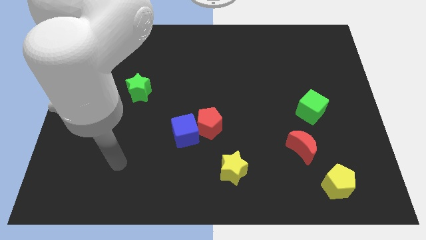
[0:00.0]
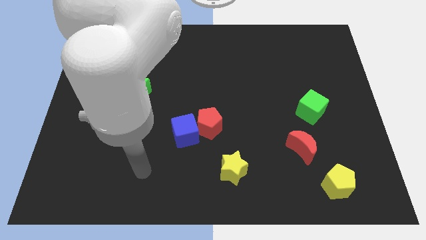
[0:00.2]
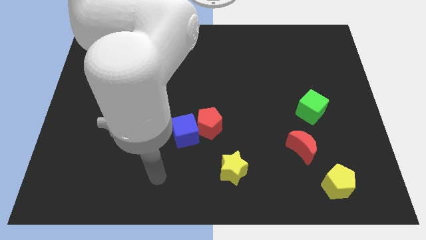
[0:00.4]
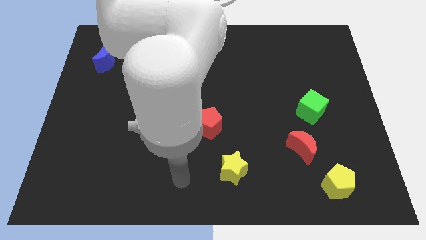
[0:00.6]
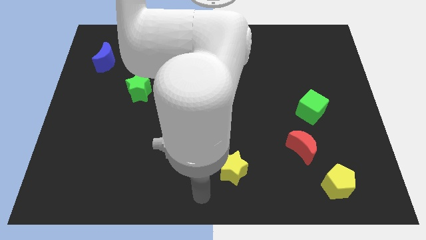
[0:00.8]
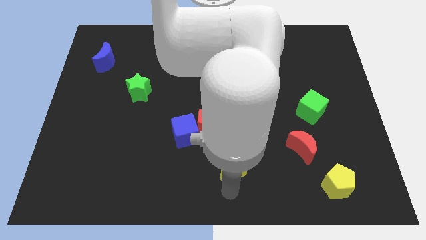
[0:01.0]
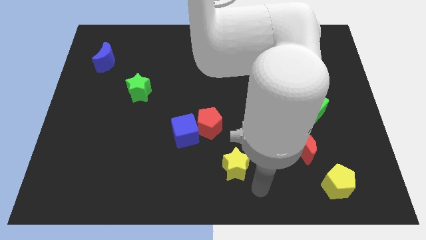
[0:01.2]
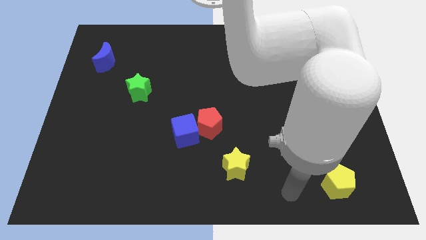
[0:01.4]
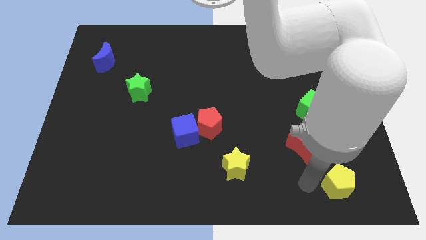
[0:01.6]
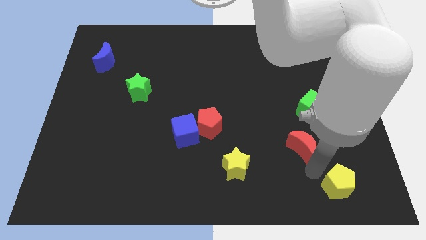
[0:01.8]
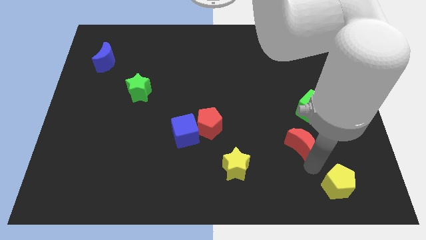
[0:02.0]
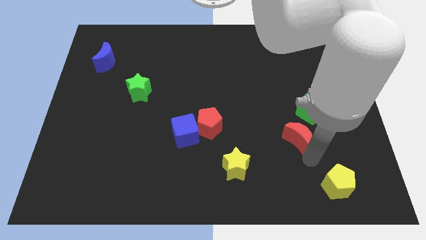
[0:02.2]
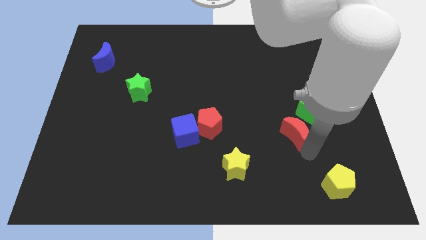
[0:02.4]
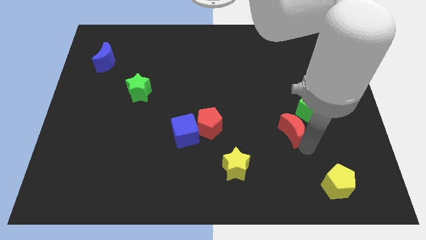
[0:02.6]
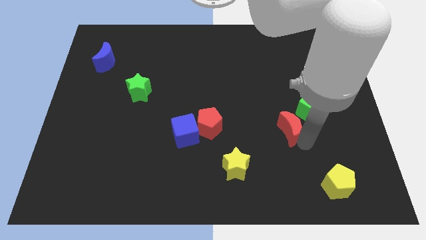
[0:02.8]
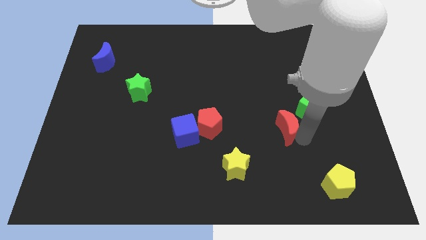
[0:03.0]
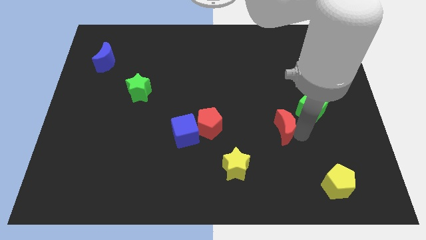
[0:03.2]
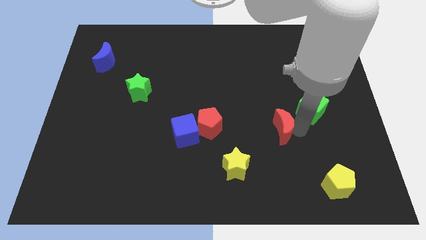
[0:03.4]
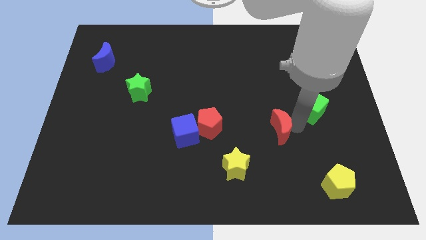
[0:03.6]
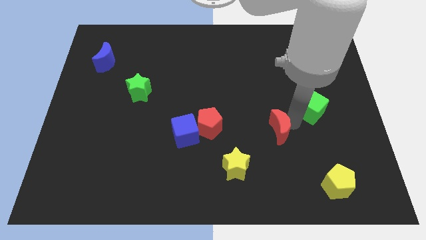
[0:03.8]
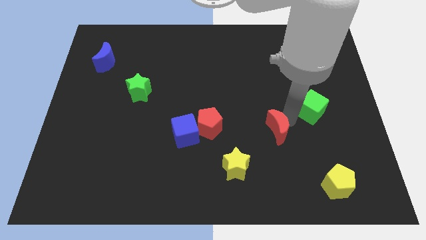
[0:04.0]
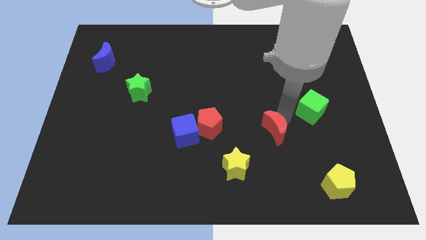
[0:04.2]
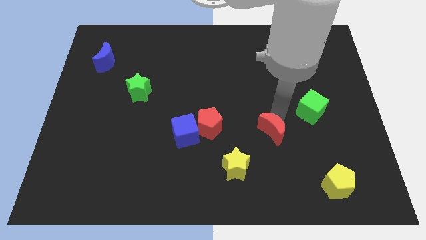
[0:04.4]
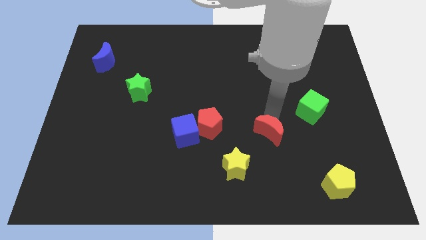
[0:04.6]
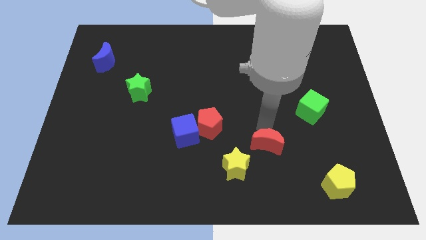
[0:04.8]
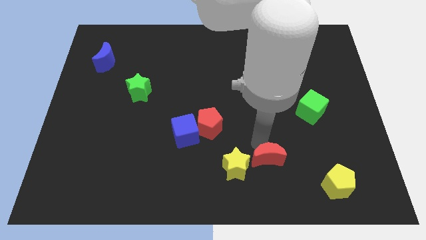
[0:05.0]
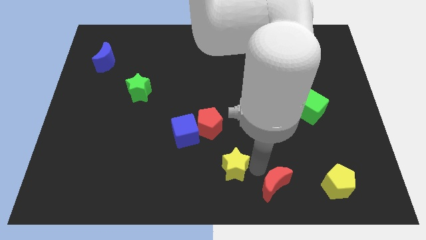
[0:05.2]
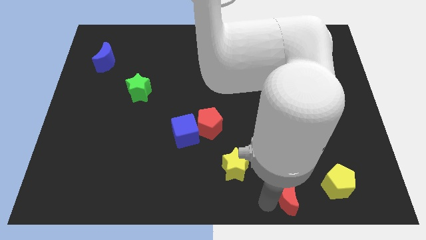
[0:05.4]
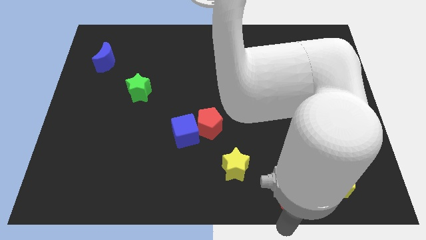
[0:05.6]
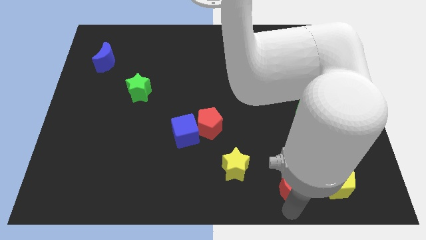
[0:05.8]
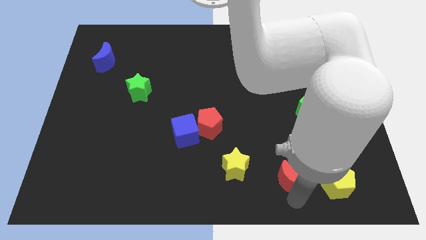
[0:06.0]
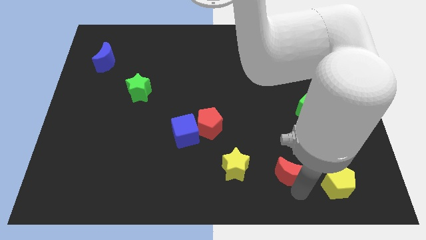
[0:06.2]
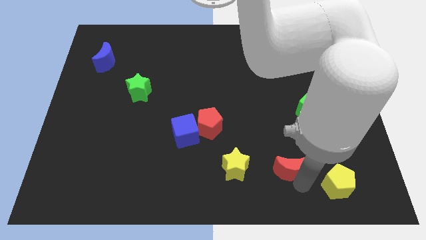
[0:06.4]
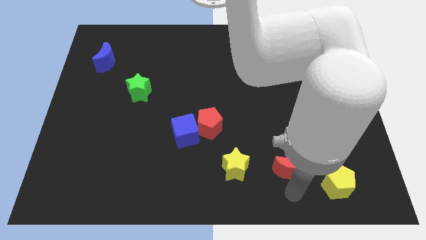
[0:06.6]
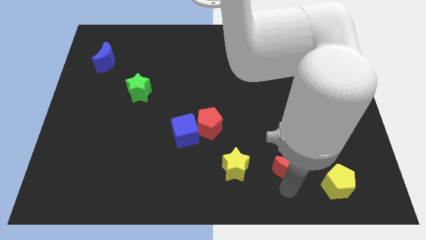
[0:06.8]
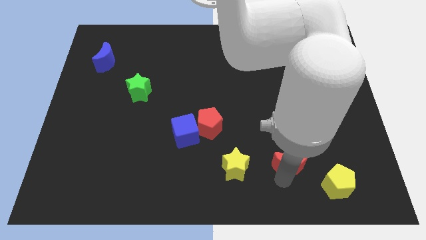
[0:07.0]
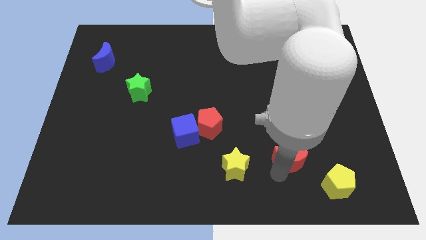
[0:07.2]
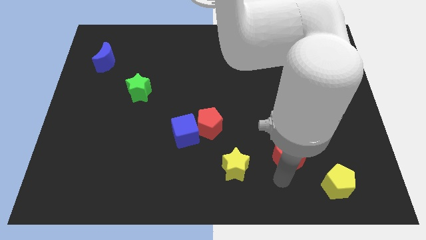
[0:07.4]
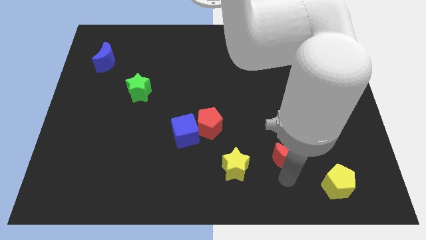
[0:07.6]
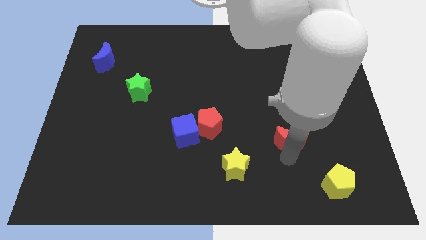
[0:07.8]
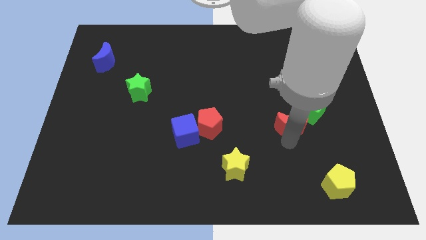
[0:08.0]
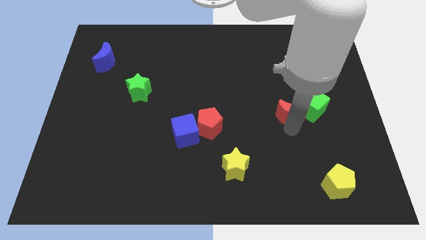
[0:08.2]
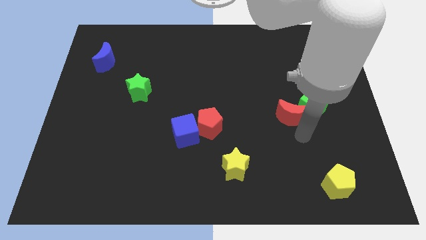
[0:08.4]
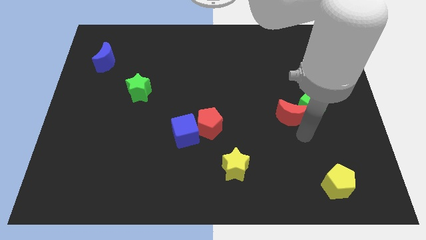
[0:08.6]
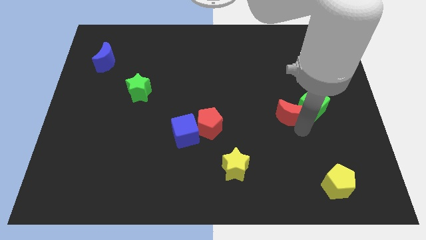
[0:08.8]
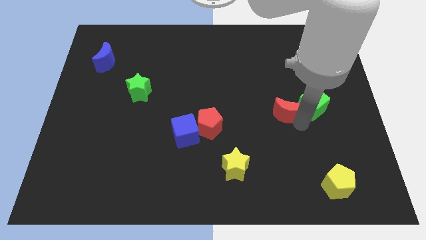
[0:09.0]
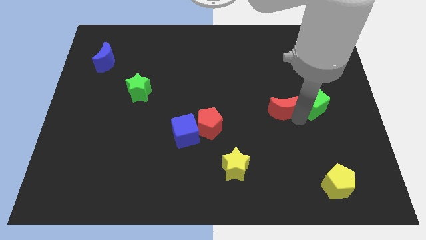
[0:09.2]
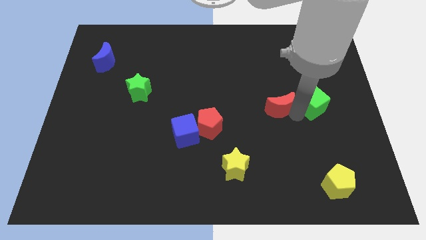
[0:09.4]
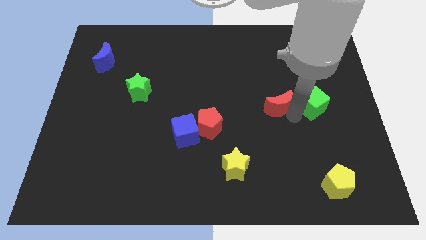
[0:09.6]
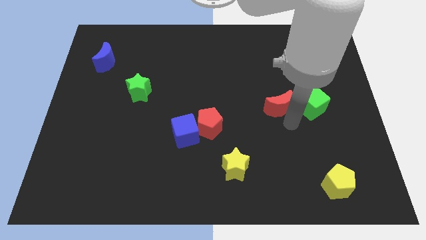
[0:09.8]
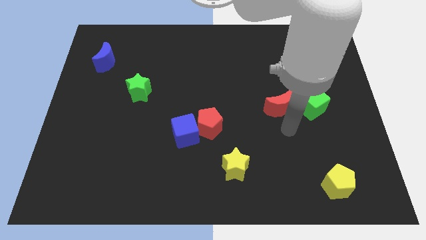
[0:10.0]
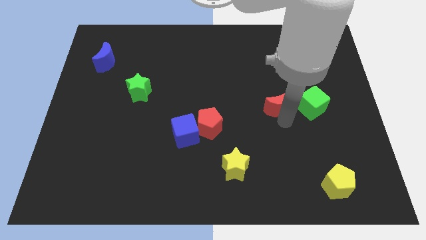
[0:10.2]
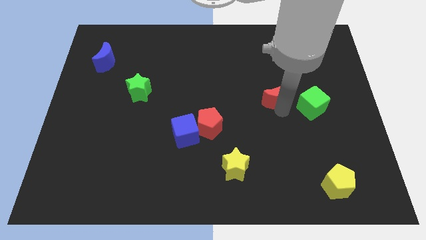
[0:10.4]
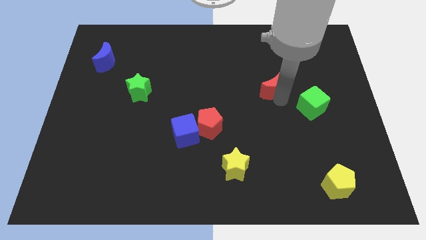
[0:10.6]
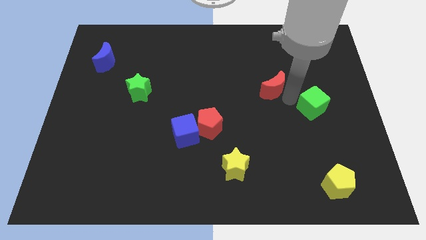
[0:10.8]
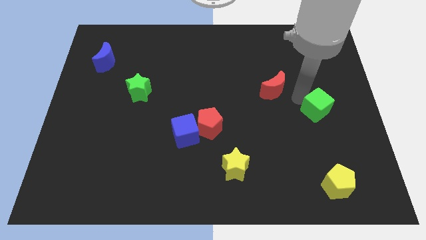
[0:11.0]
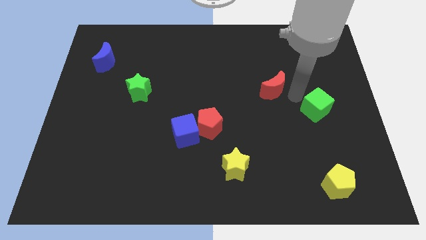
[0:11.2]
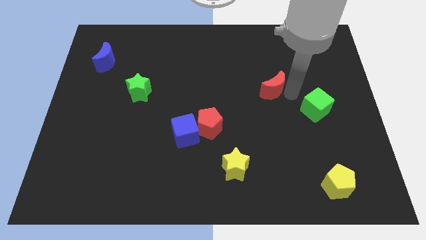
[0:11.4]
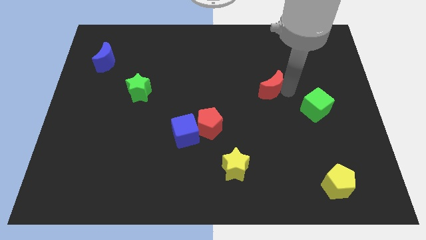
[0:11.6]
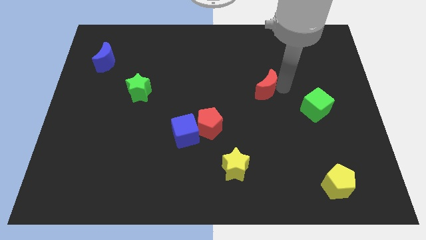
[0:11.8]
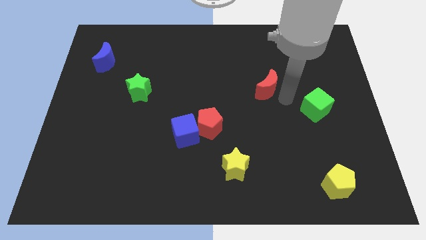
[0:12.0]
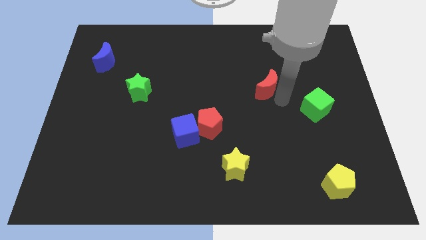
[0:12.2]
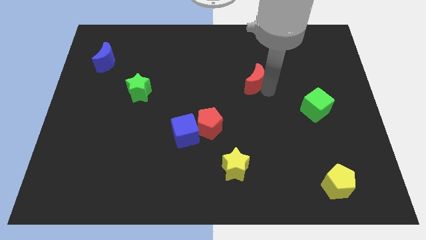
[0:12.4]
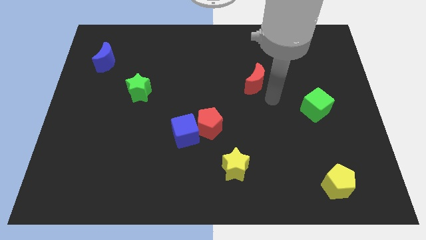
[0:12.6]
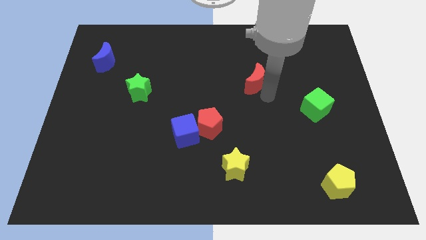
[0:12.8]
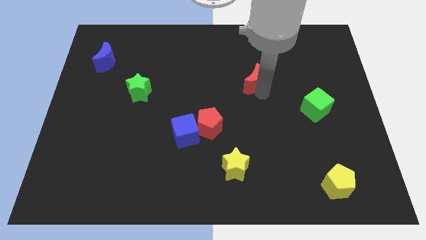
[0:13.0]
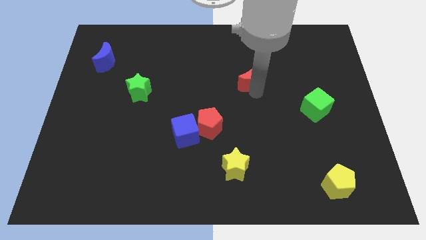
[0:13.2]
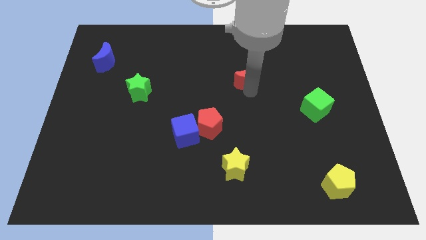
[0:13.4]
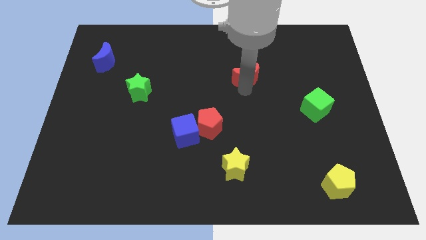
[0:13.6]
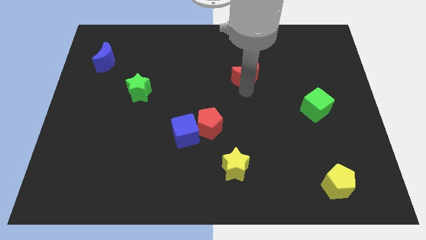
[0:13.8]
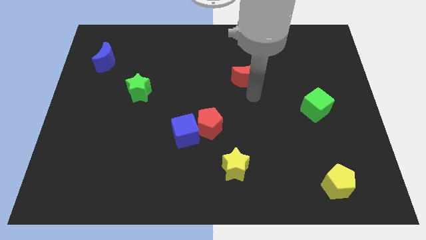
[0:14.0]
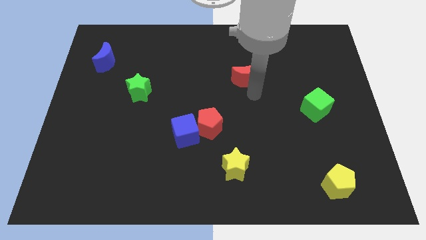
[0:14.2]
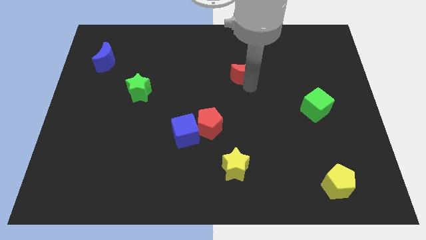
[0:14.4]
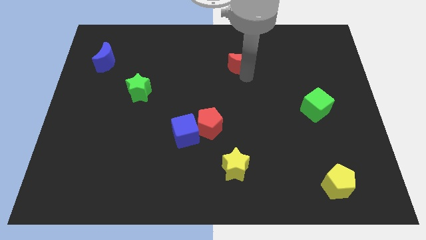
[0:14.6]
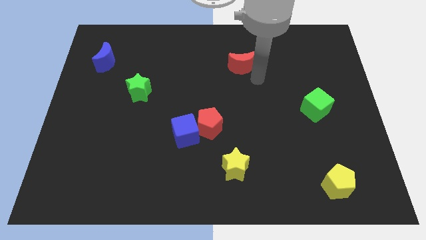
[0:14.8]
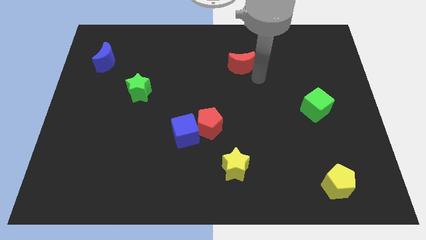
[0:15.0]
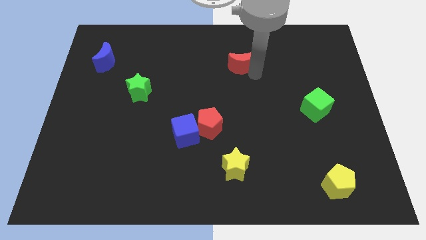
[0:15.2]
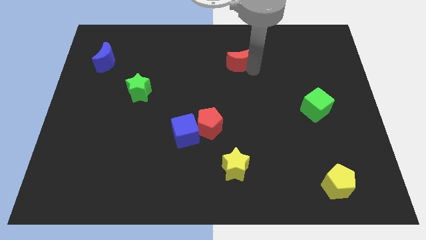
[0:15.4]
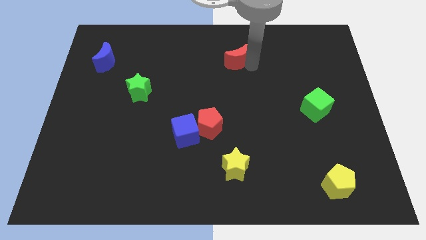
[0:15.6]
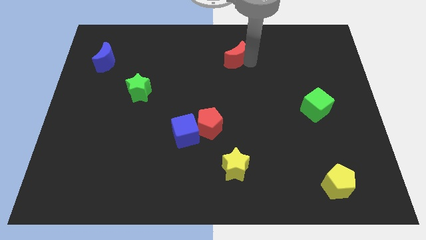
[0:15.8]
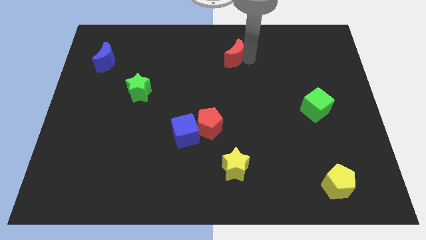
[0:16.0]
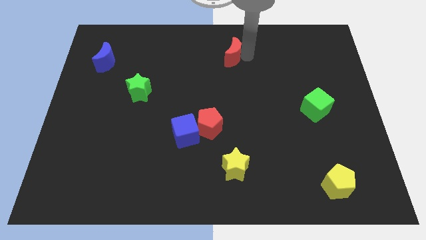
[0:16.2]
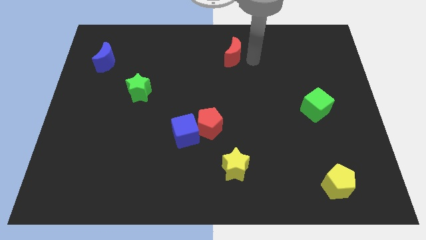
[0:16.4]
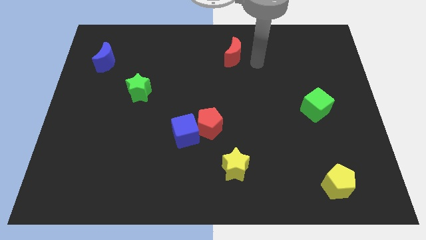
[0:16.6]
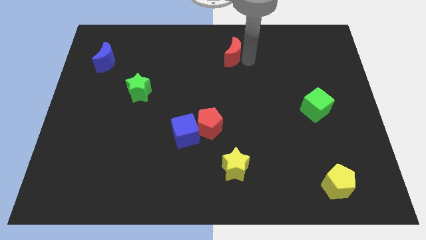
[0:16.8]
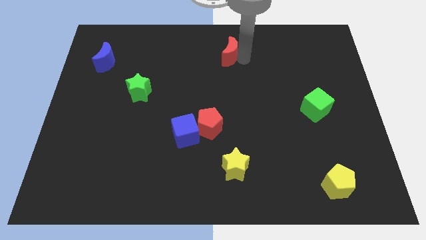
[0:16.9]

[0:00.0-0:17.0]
put the red moon to the towards your base
